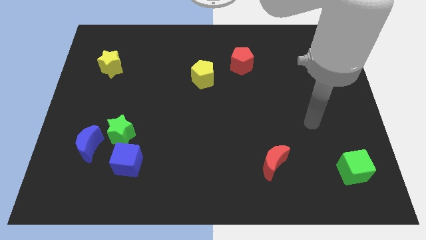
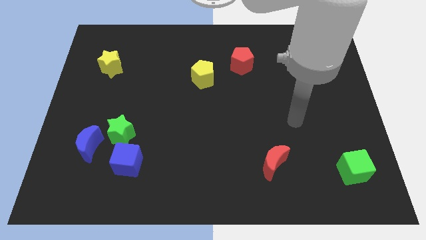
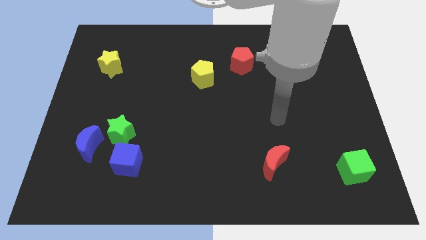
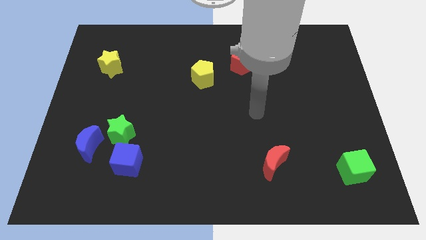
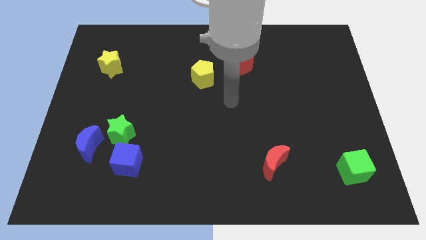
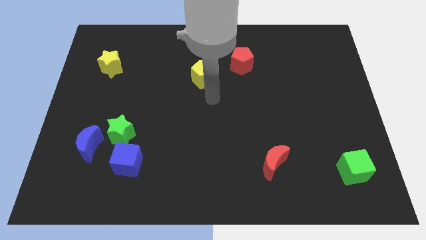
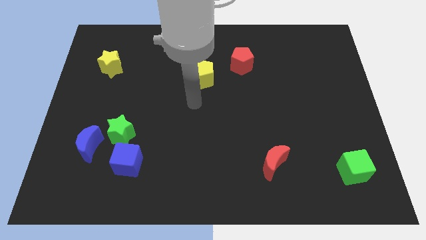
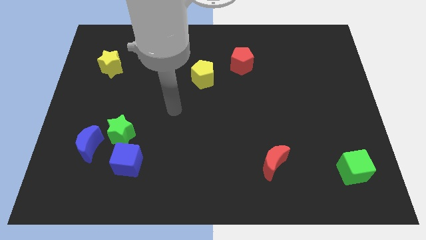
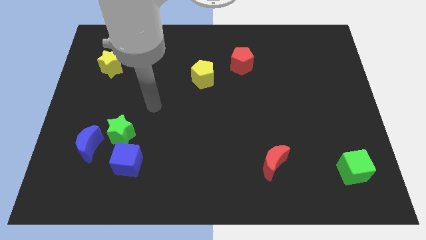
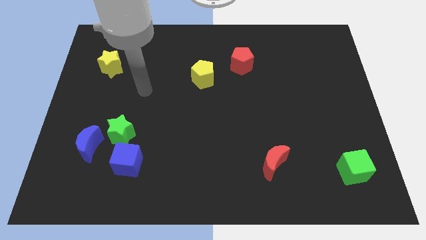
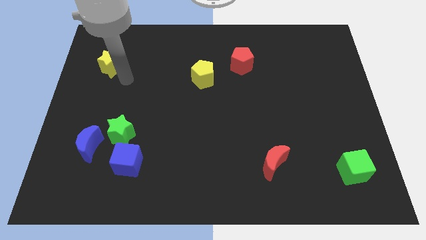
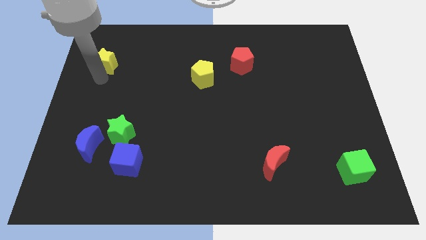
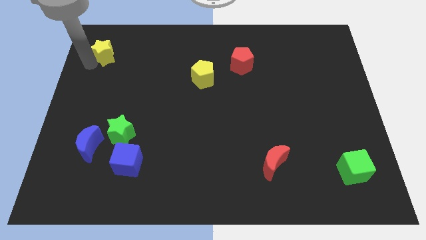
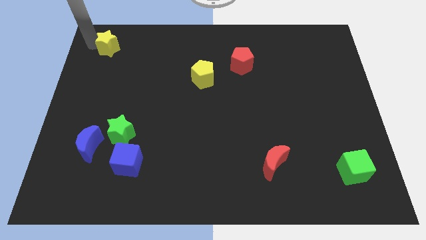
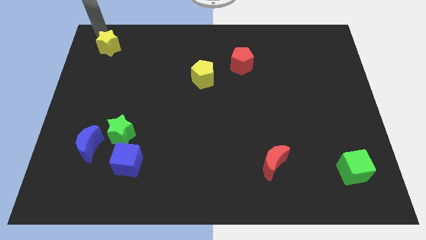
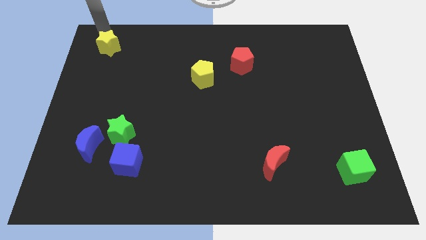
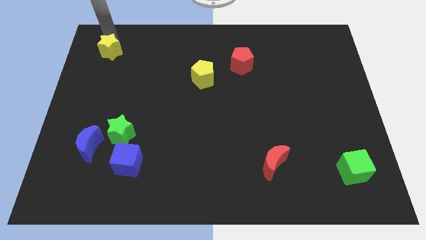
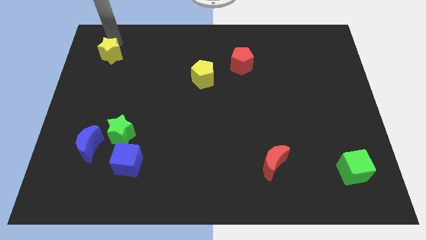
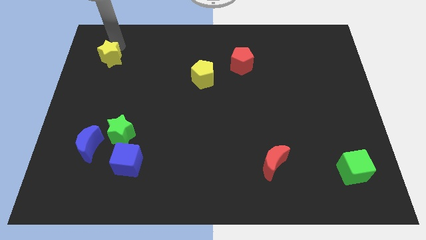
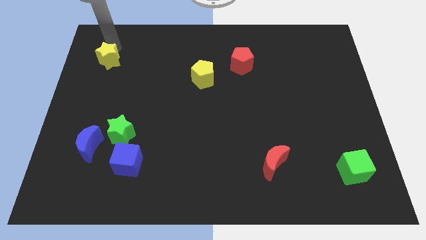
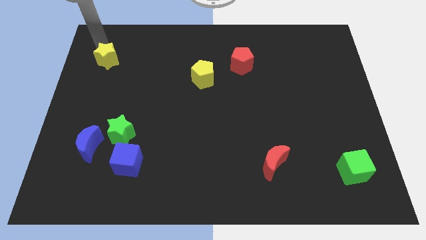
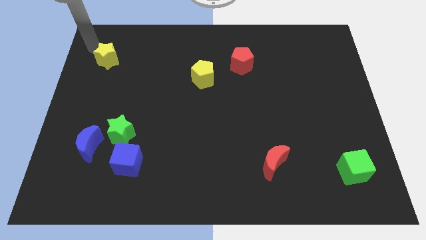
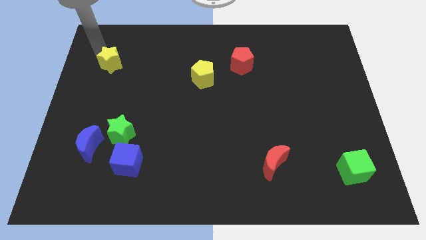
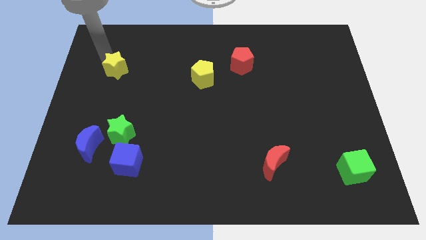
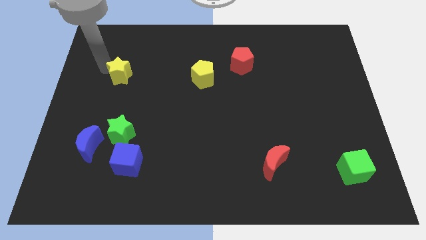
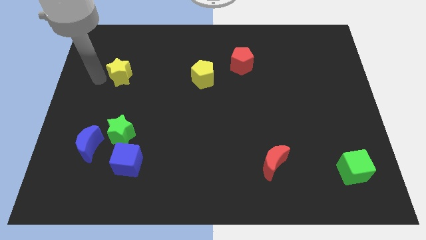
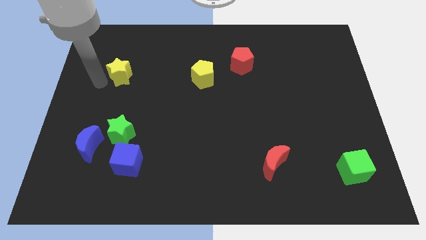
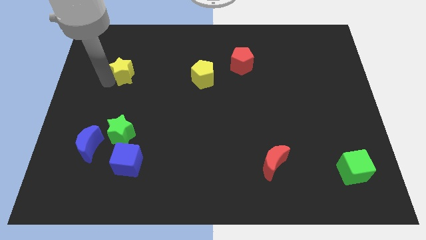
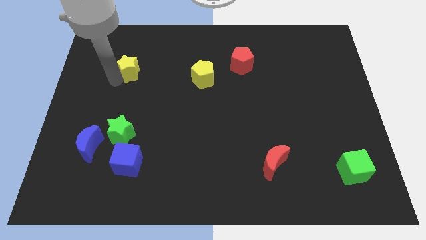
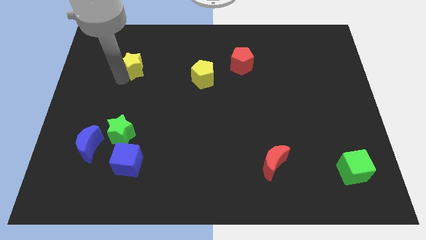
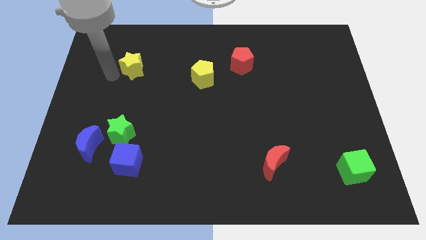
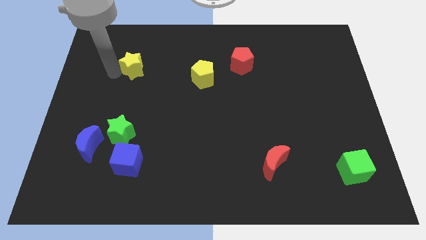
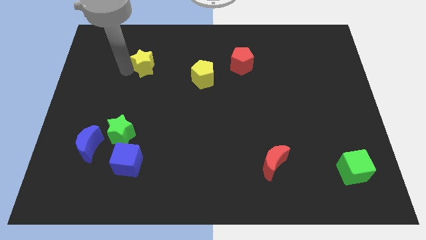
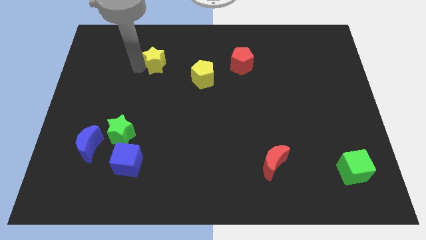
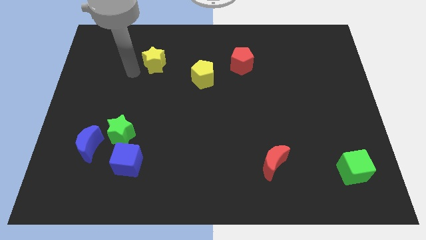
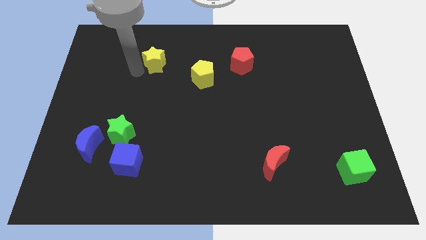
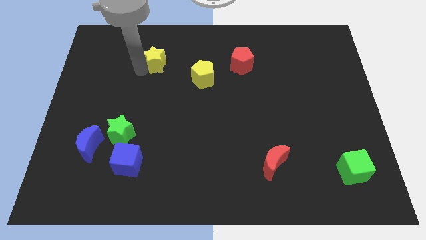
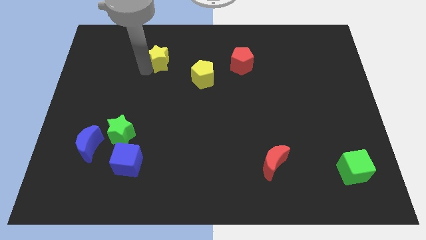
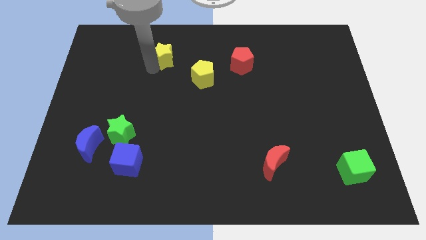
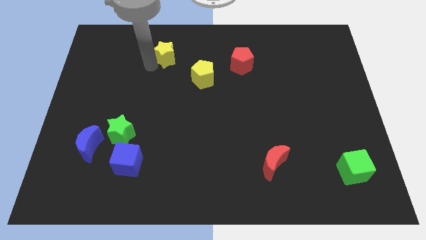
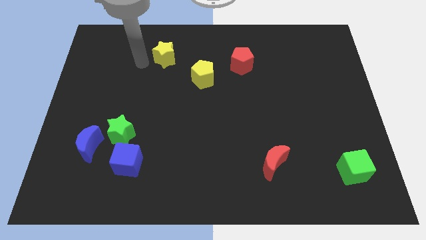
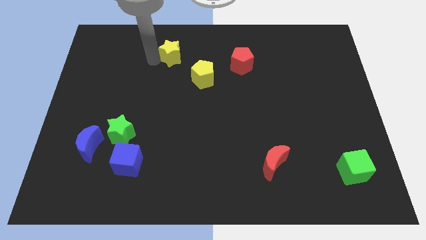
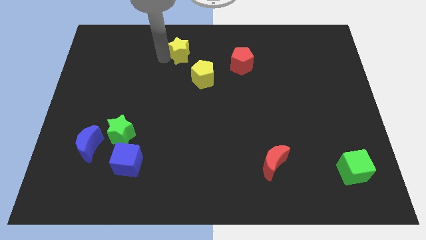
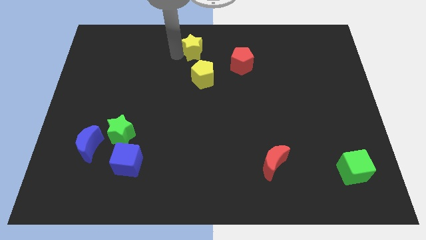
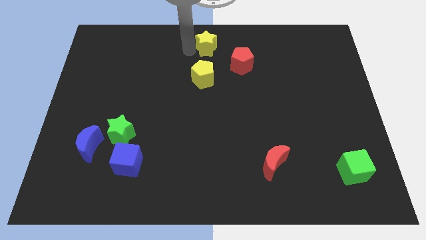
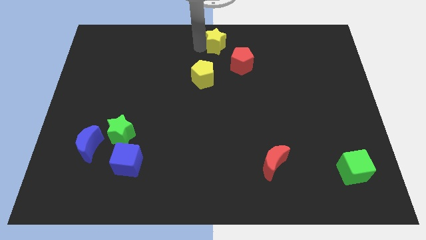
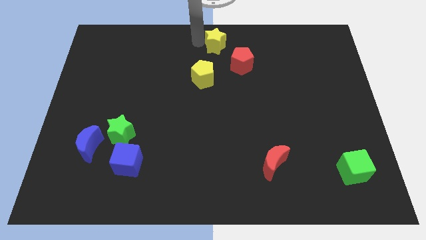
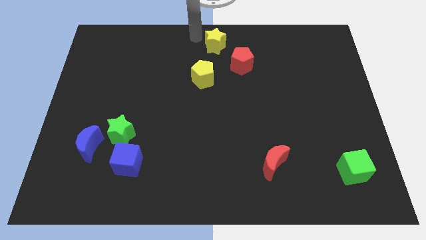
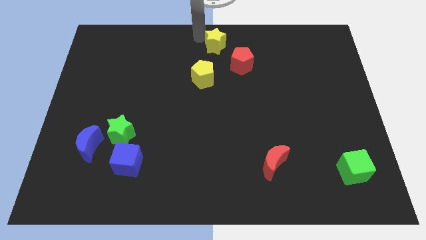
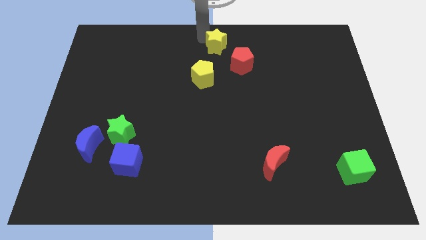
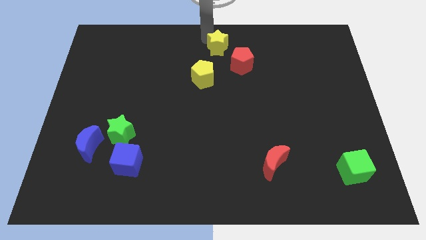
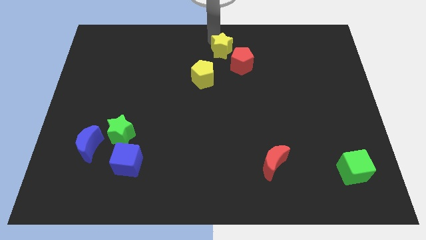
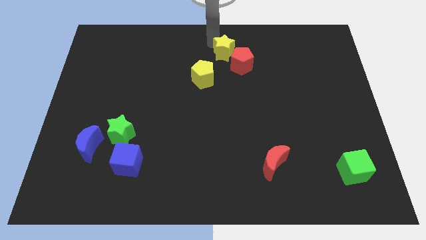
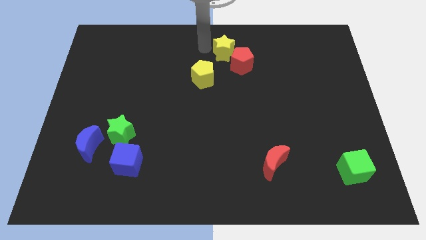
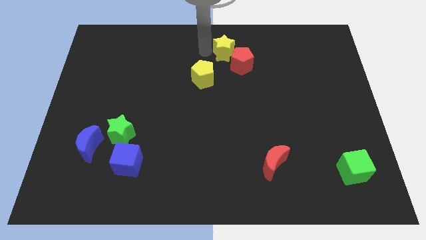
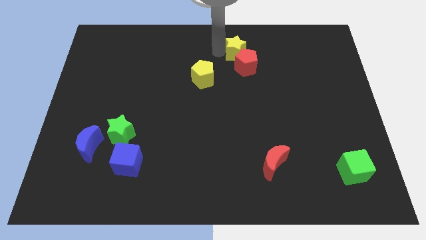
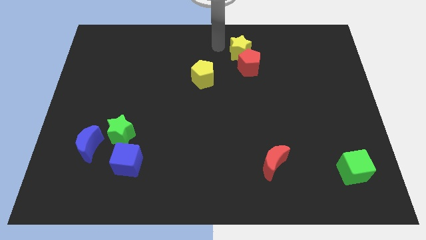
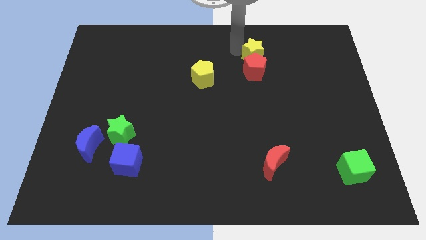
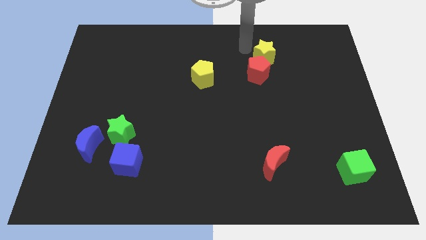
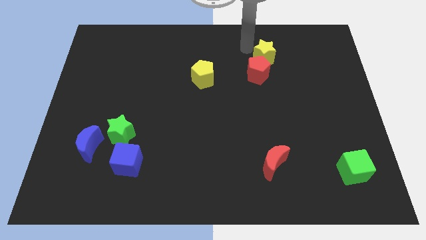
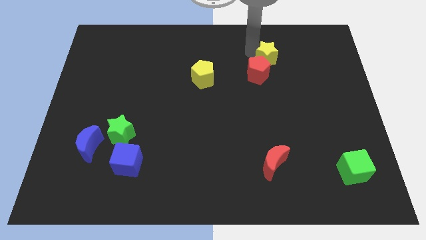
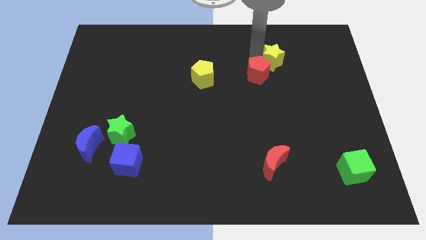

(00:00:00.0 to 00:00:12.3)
move the yellow star just right of the red pentagon

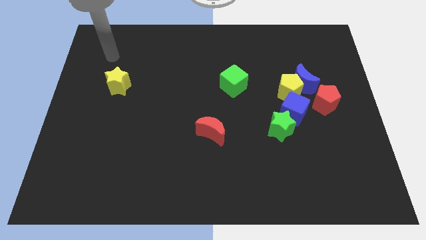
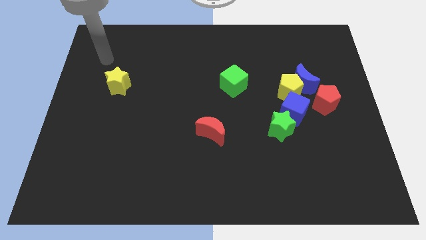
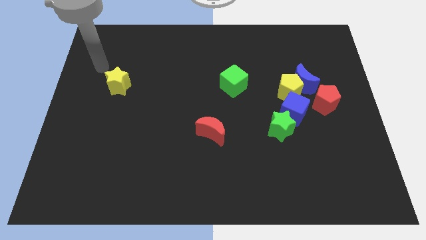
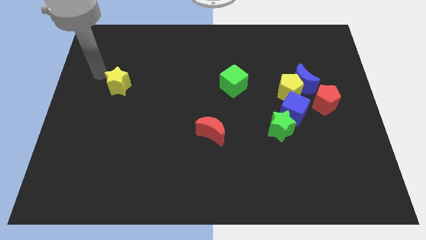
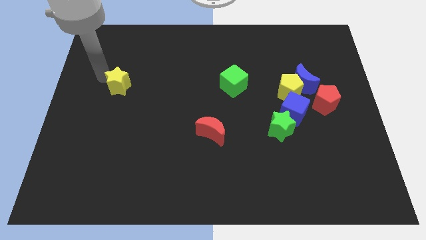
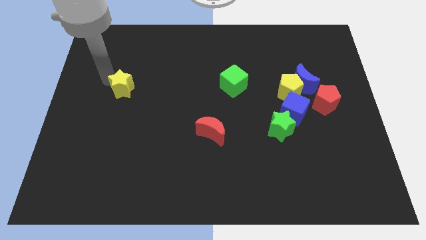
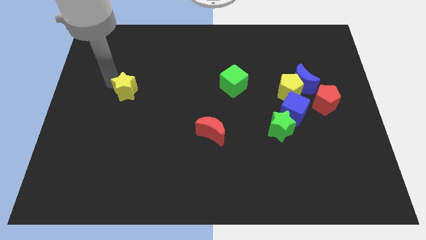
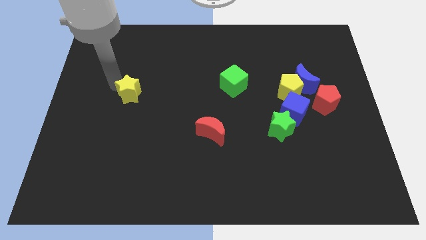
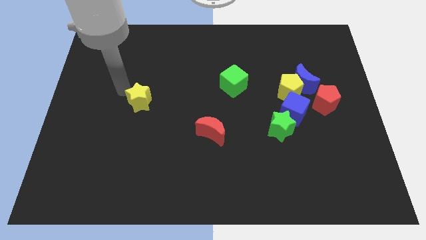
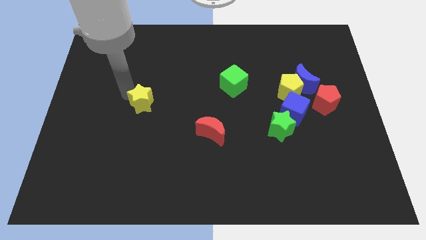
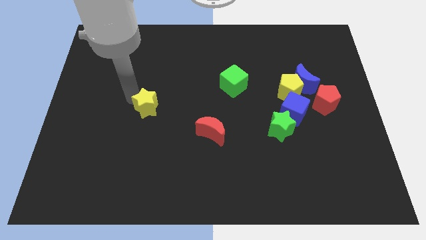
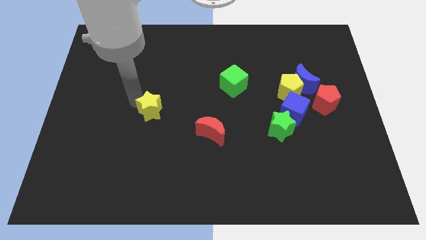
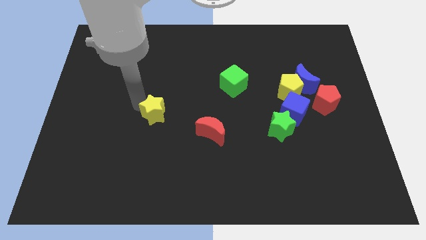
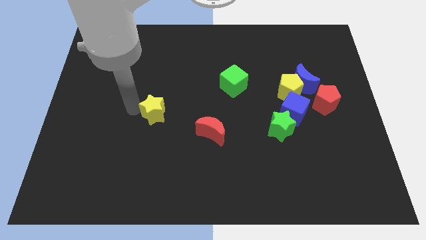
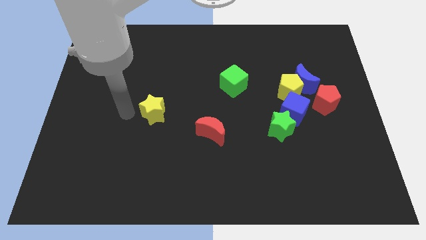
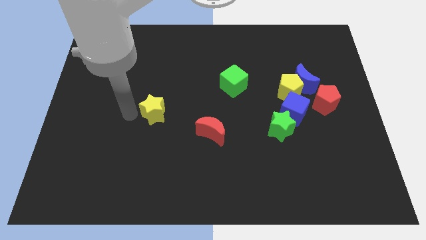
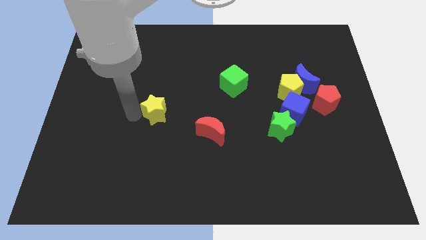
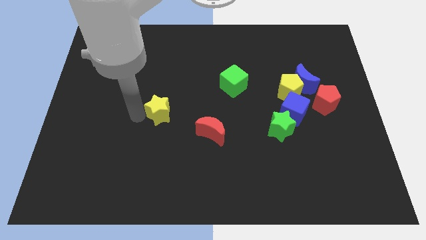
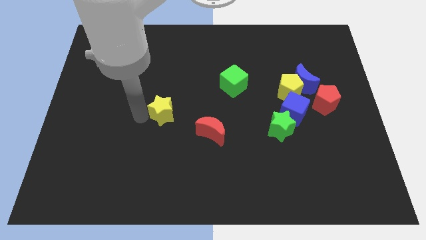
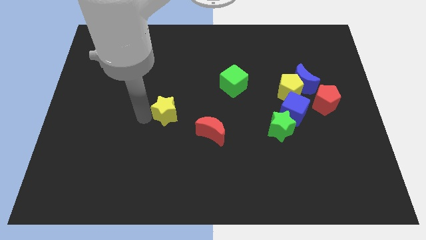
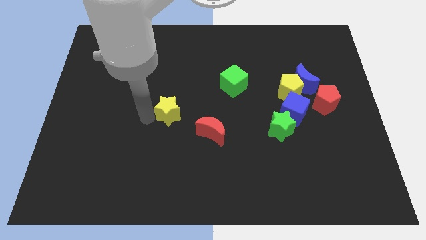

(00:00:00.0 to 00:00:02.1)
slide the yellow star to the top left of the red moon
